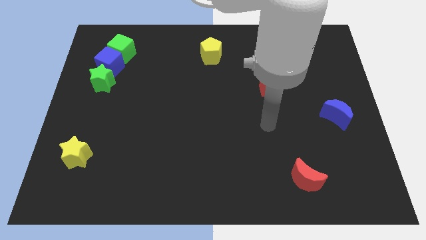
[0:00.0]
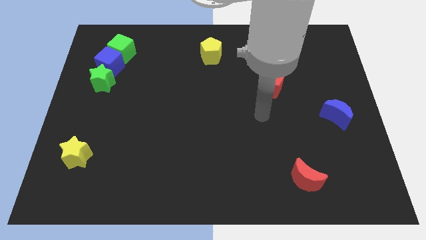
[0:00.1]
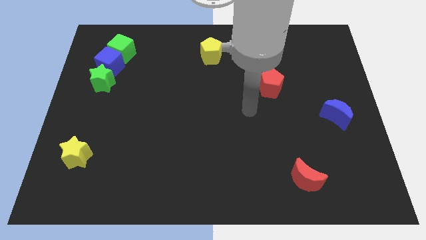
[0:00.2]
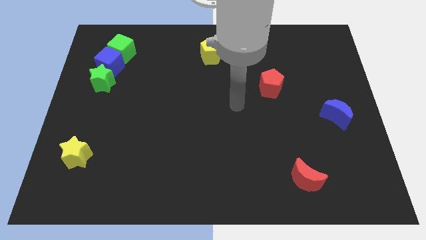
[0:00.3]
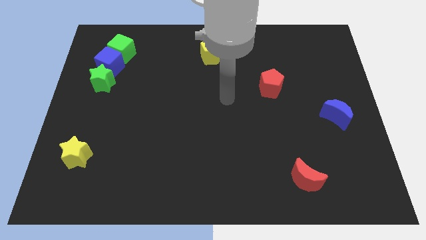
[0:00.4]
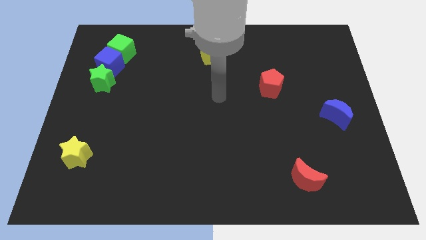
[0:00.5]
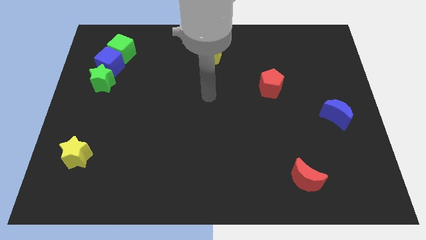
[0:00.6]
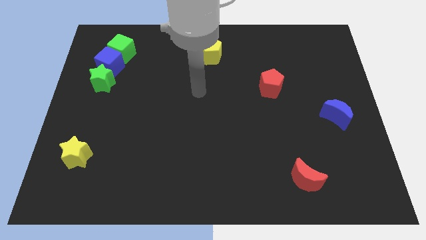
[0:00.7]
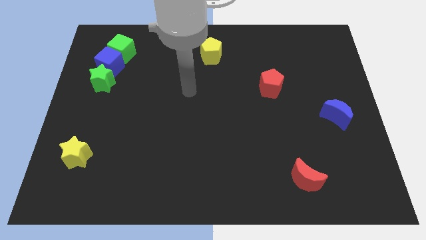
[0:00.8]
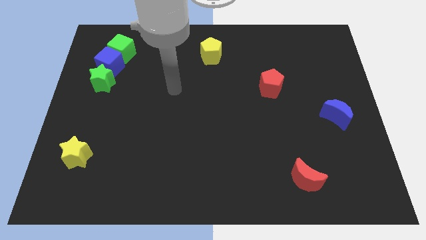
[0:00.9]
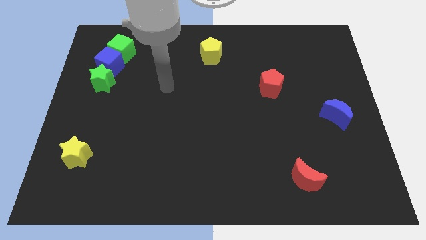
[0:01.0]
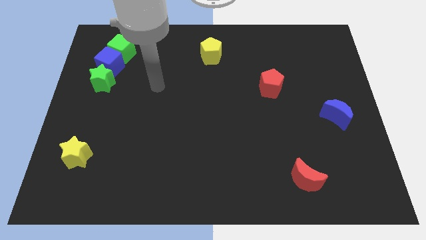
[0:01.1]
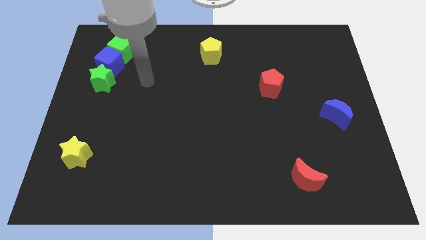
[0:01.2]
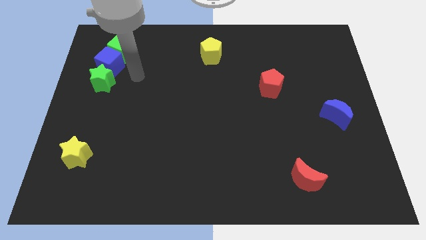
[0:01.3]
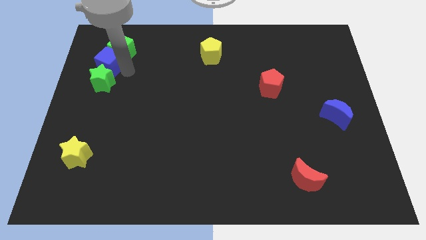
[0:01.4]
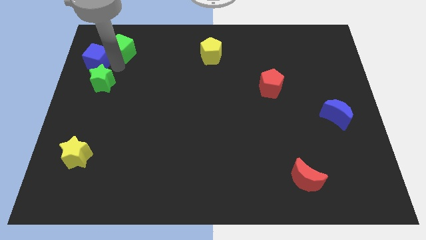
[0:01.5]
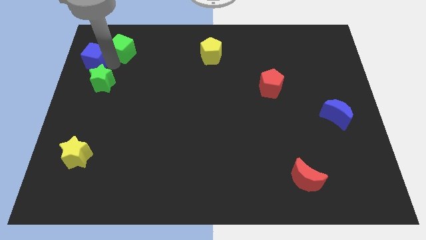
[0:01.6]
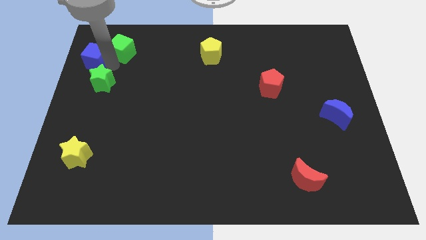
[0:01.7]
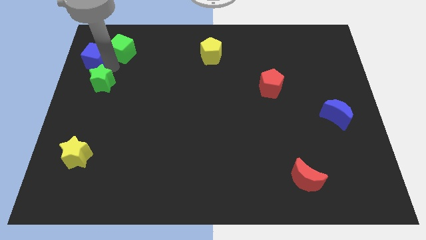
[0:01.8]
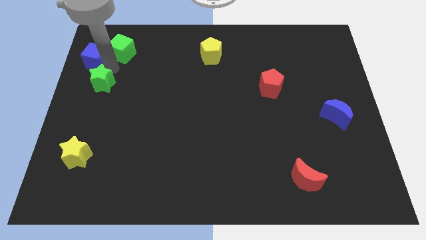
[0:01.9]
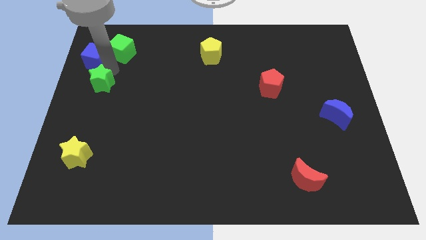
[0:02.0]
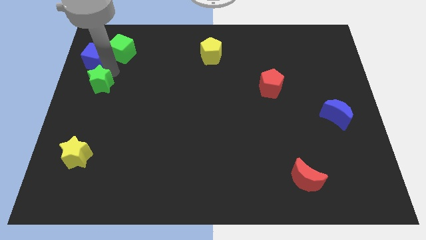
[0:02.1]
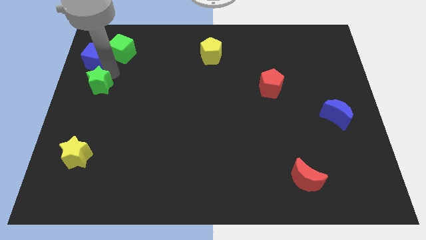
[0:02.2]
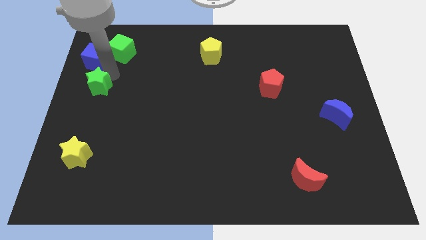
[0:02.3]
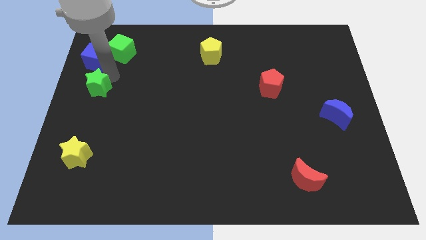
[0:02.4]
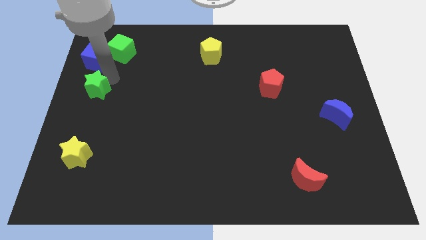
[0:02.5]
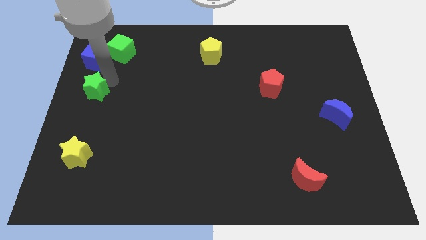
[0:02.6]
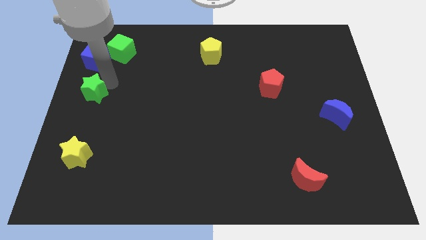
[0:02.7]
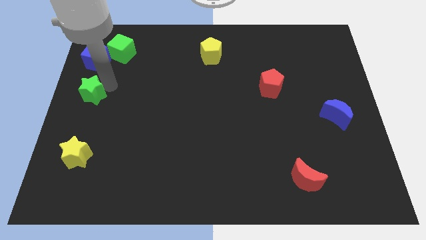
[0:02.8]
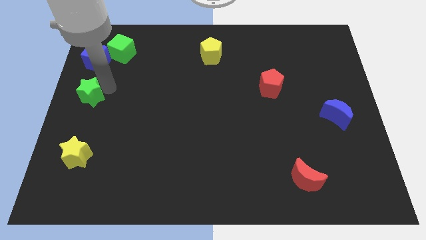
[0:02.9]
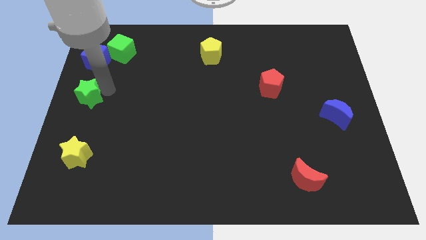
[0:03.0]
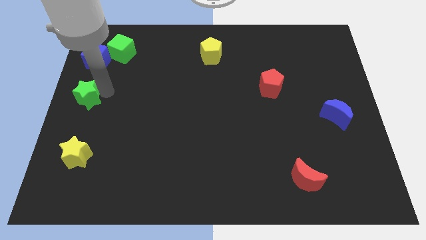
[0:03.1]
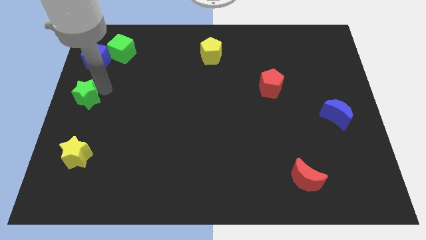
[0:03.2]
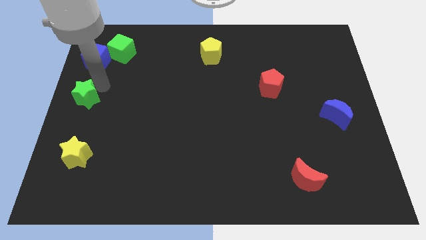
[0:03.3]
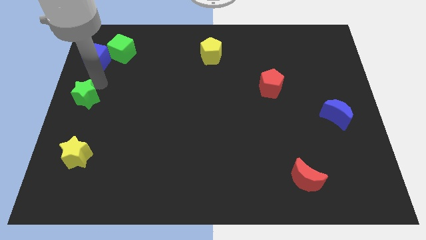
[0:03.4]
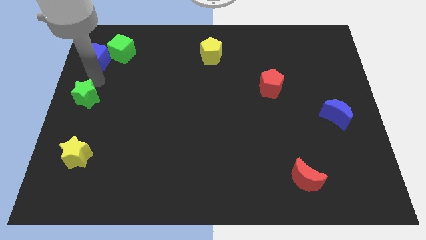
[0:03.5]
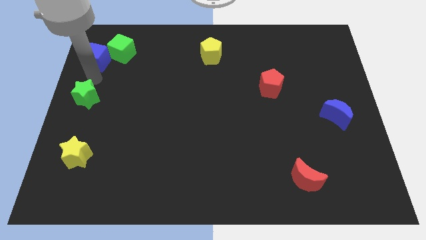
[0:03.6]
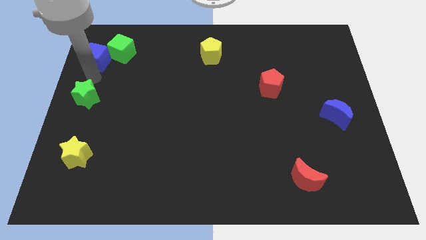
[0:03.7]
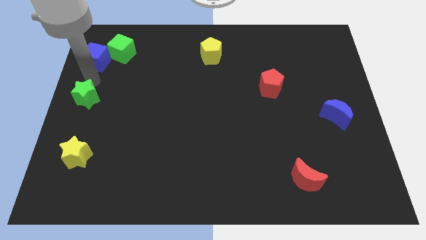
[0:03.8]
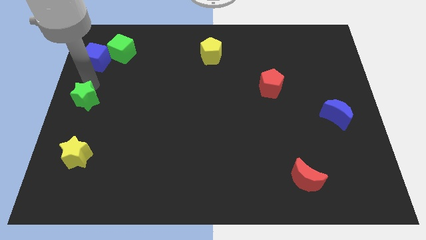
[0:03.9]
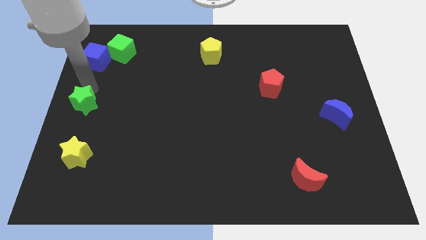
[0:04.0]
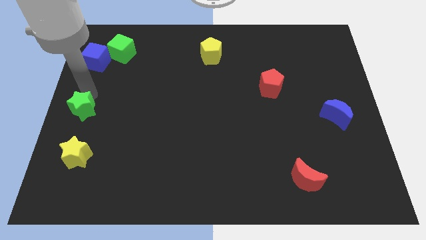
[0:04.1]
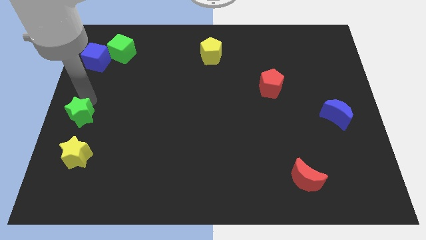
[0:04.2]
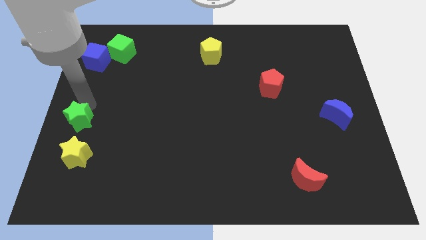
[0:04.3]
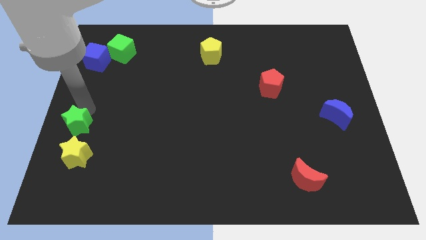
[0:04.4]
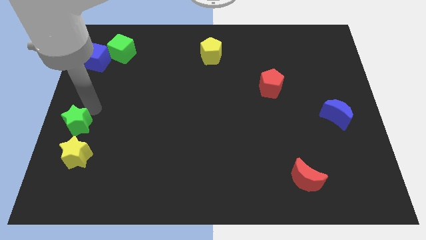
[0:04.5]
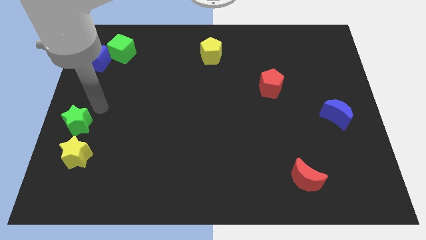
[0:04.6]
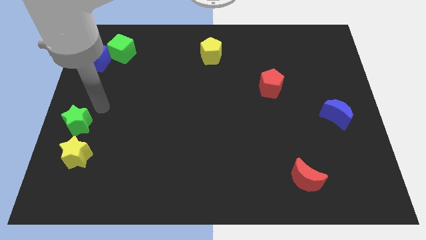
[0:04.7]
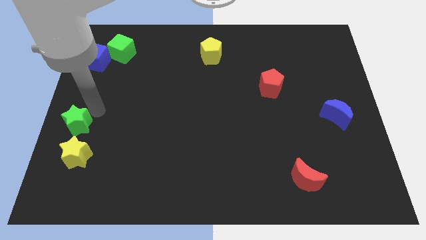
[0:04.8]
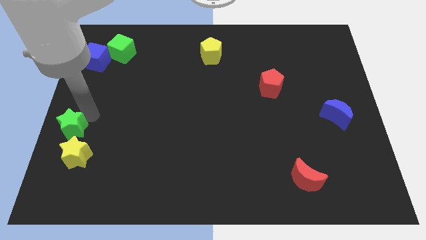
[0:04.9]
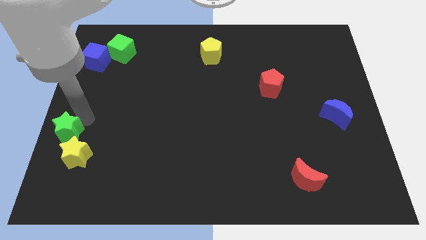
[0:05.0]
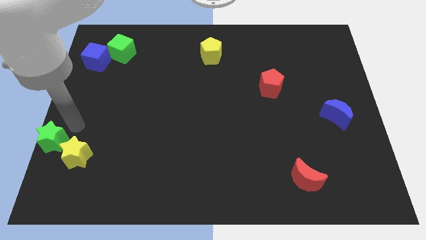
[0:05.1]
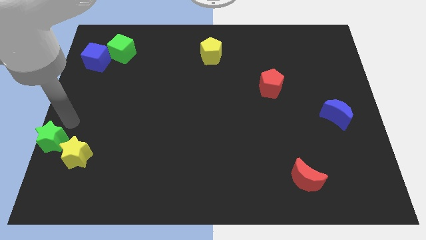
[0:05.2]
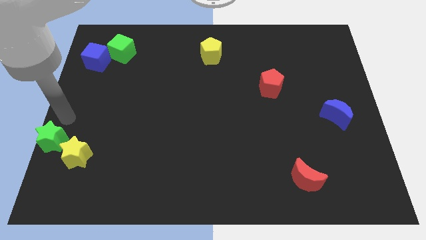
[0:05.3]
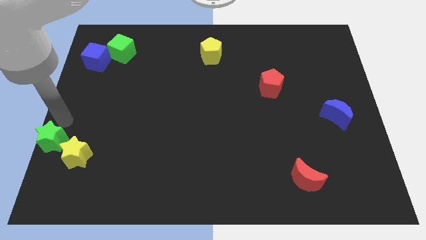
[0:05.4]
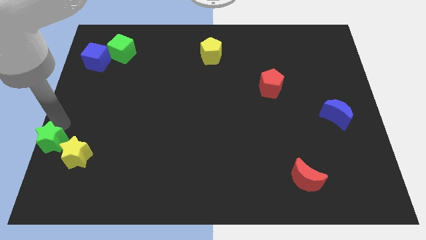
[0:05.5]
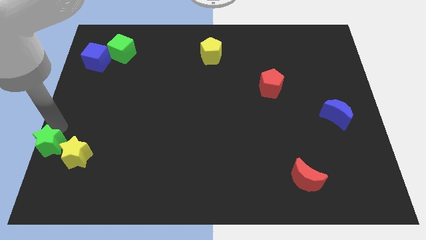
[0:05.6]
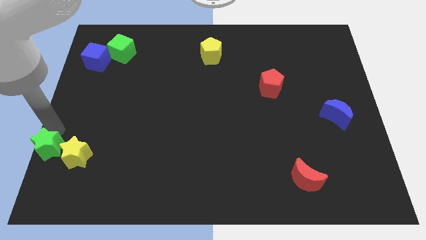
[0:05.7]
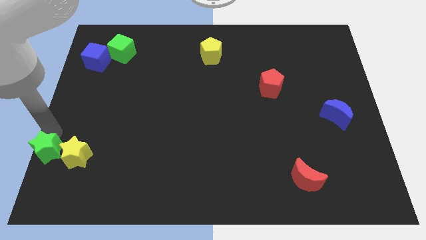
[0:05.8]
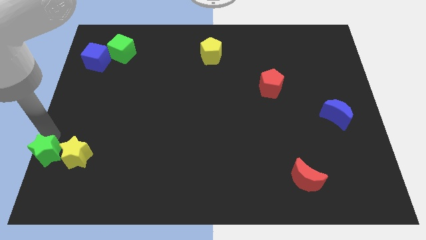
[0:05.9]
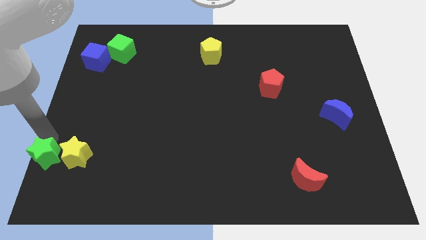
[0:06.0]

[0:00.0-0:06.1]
slide the green star to the bottom left
